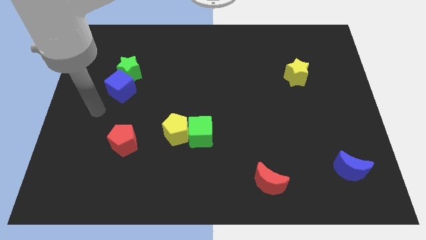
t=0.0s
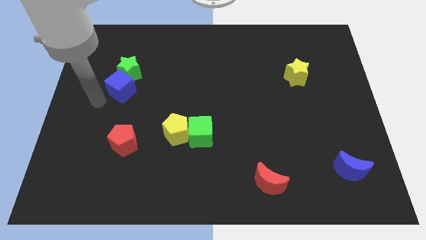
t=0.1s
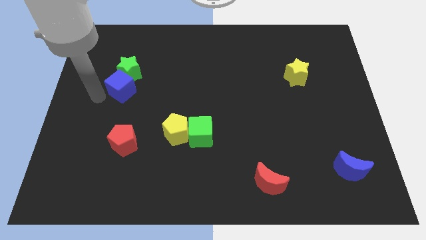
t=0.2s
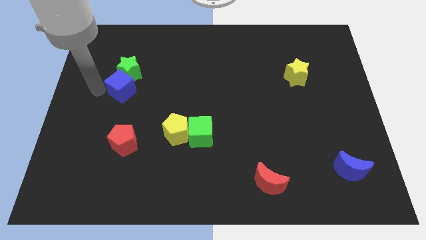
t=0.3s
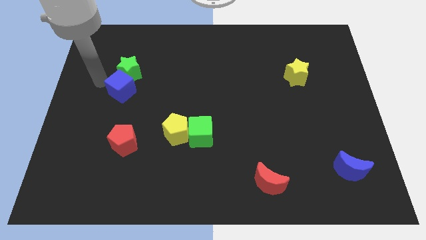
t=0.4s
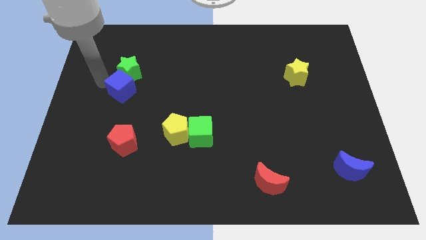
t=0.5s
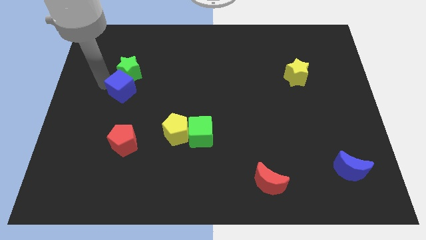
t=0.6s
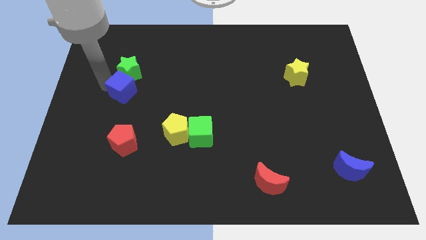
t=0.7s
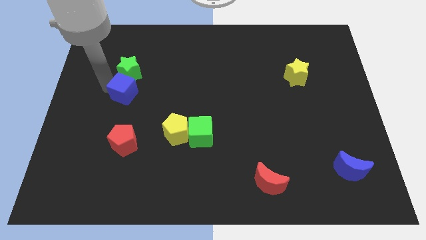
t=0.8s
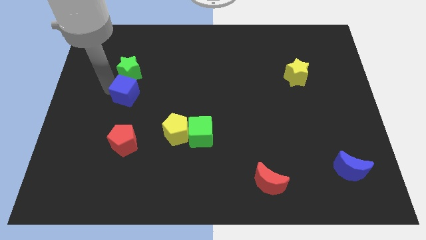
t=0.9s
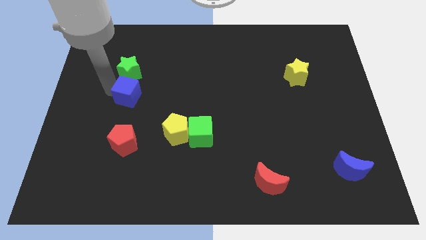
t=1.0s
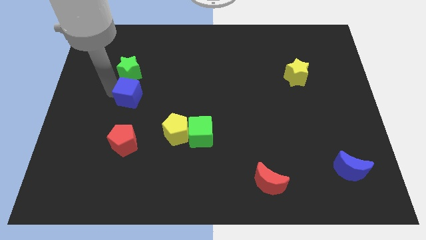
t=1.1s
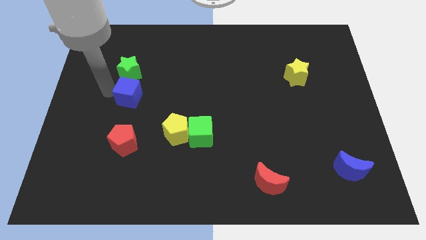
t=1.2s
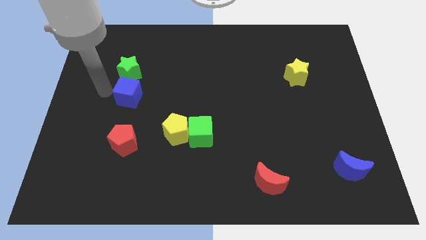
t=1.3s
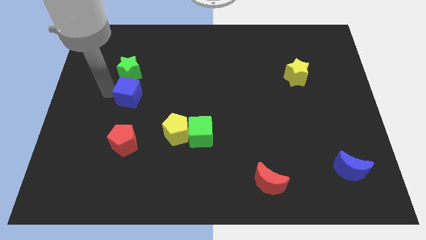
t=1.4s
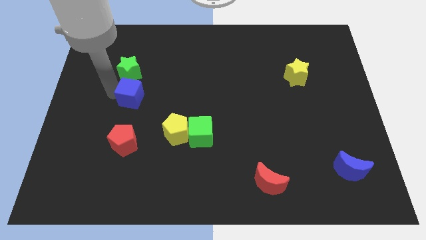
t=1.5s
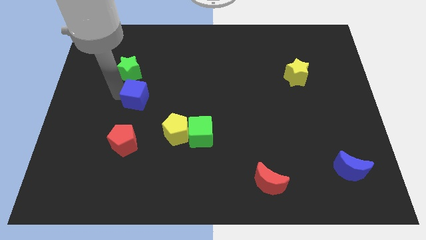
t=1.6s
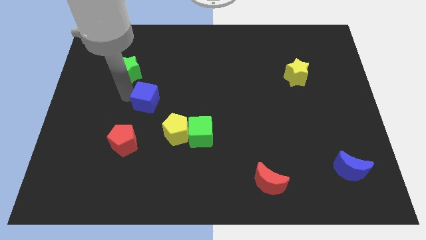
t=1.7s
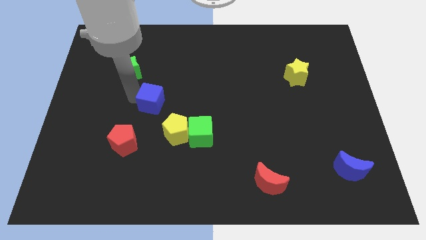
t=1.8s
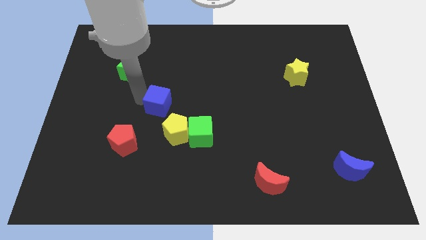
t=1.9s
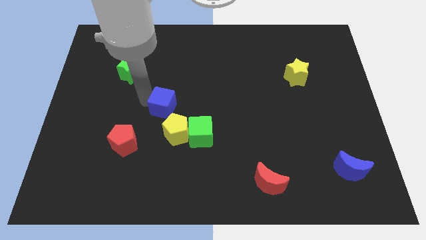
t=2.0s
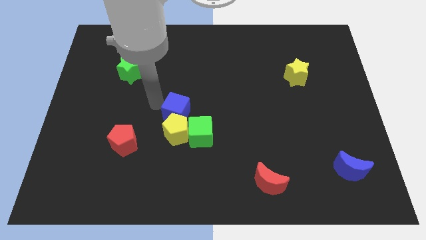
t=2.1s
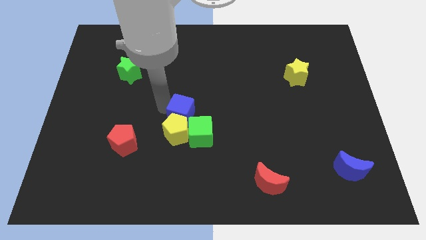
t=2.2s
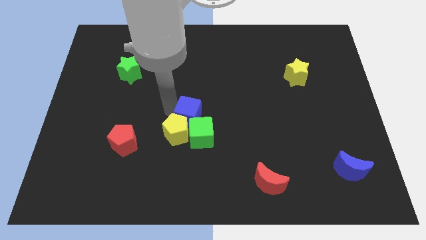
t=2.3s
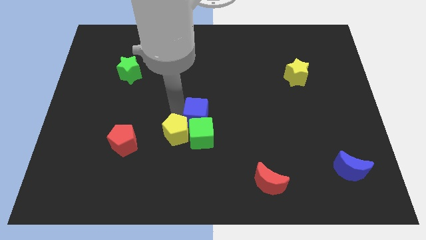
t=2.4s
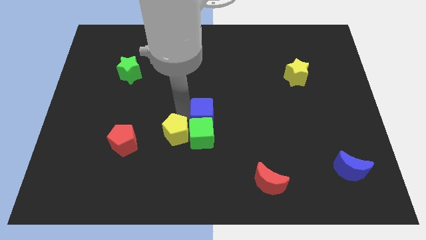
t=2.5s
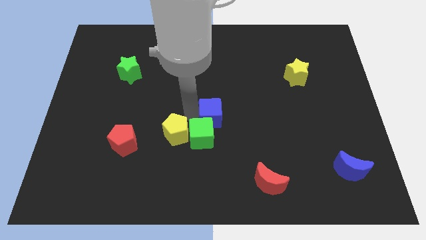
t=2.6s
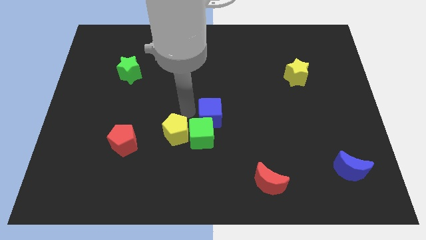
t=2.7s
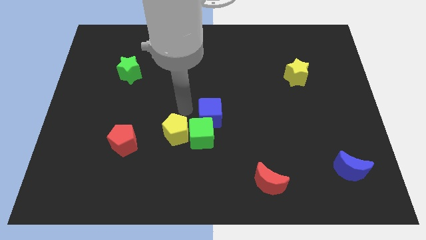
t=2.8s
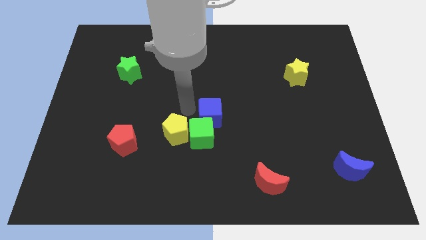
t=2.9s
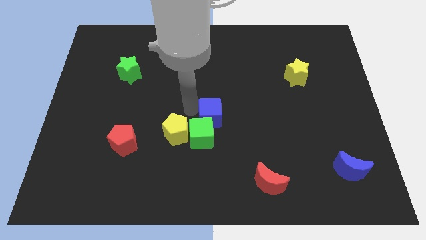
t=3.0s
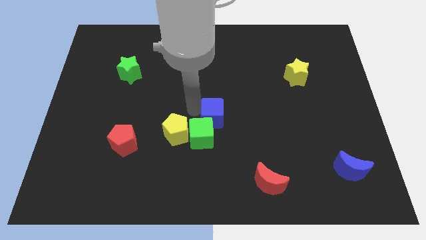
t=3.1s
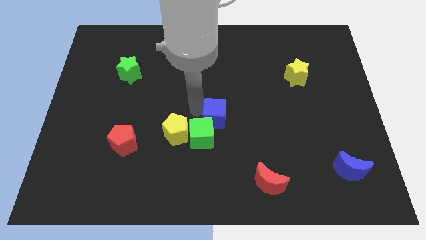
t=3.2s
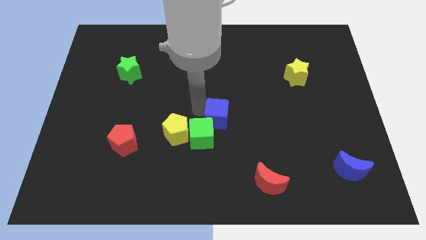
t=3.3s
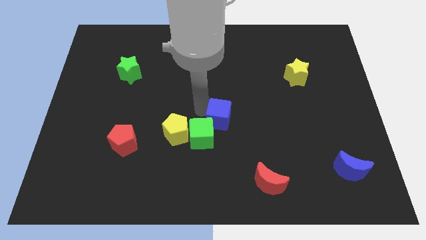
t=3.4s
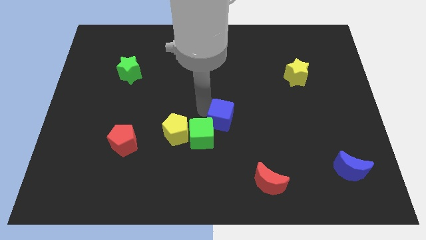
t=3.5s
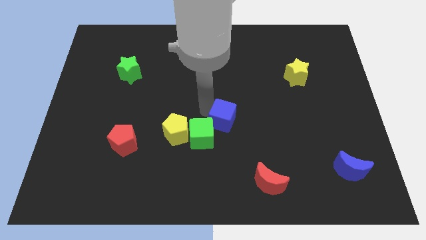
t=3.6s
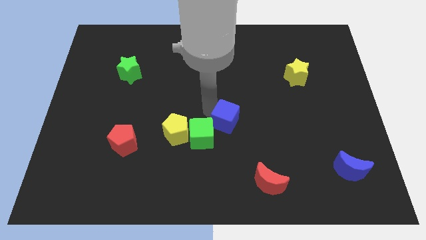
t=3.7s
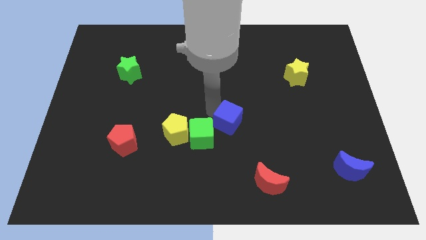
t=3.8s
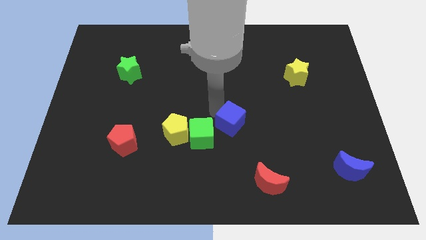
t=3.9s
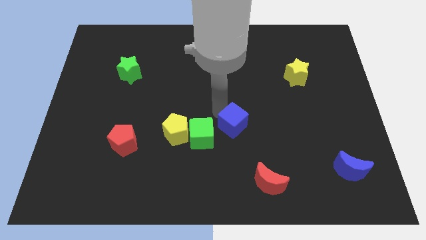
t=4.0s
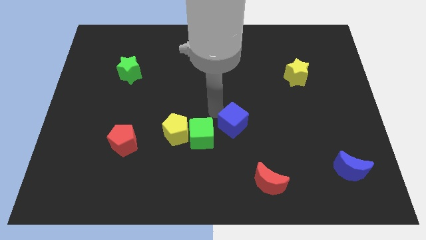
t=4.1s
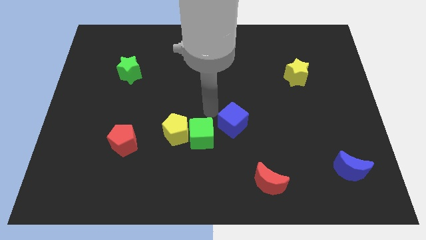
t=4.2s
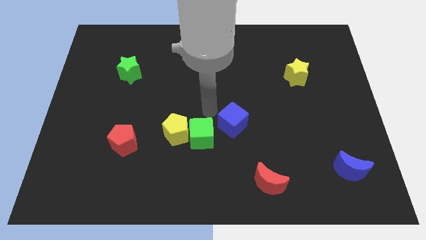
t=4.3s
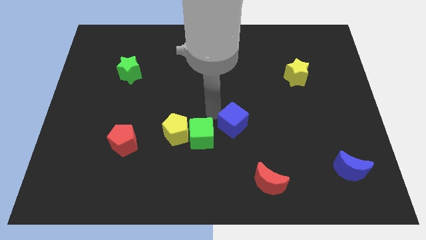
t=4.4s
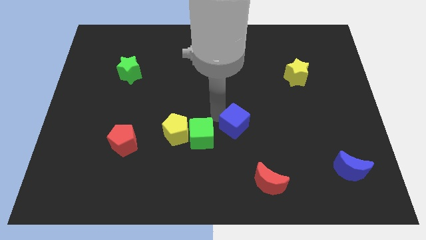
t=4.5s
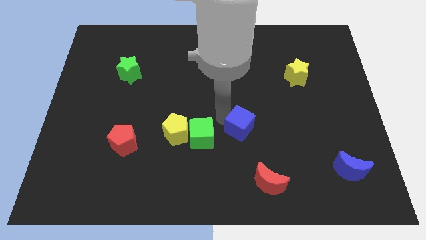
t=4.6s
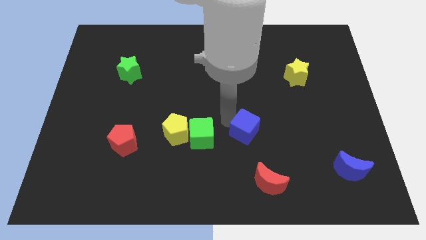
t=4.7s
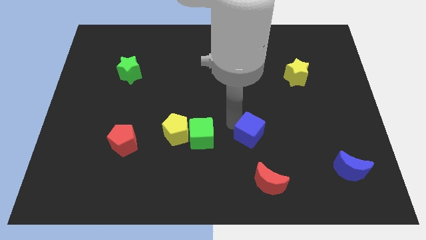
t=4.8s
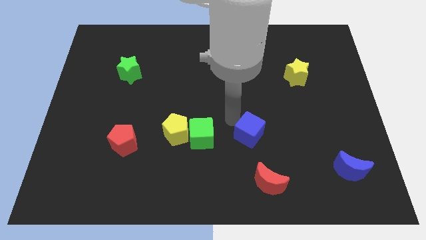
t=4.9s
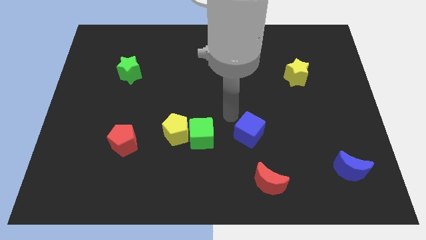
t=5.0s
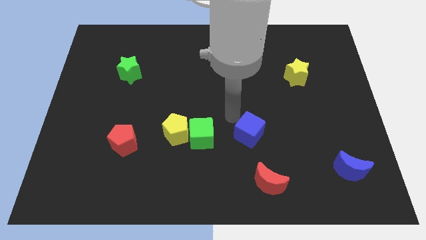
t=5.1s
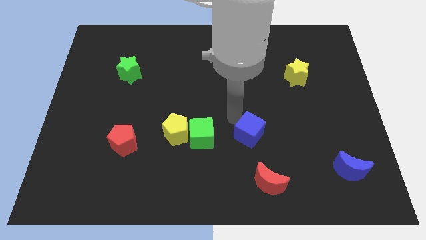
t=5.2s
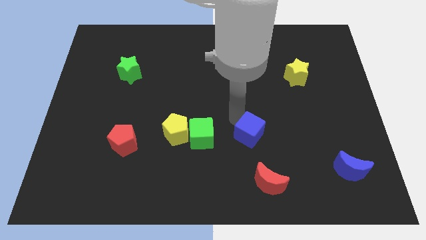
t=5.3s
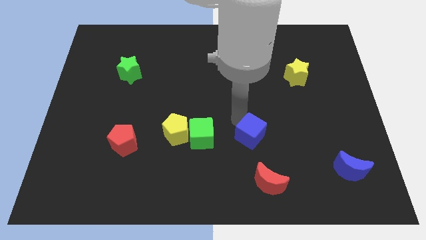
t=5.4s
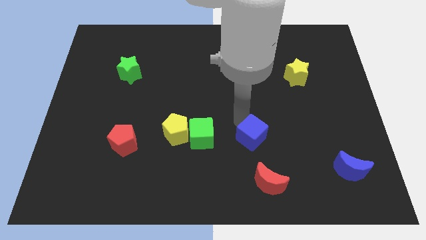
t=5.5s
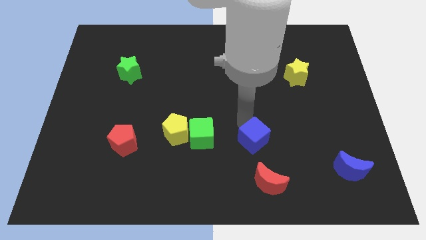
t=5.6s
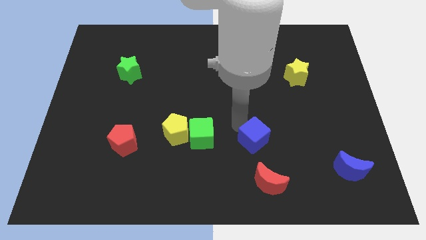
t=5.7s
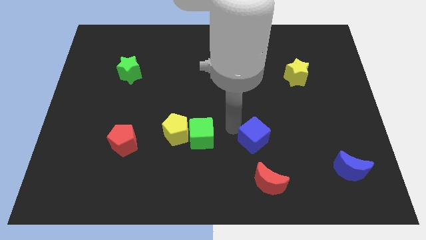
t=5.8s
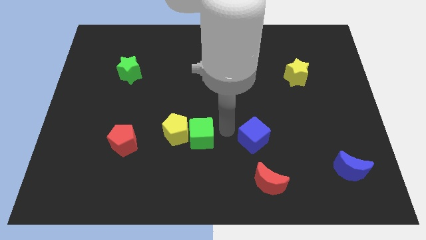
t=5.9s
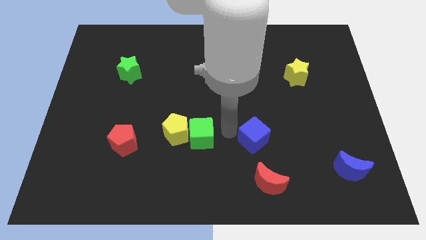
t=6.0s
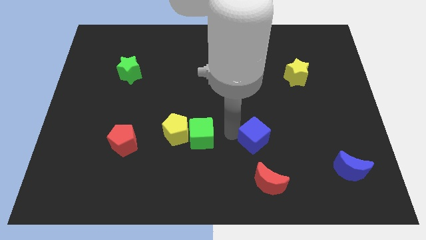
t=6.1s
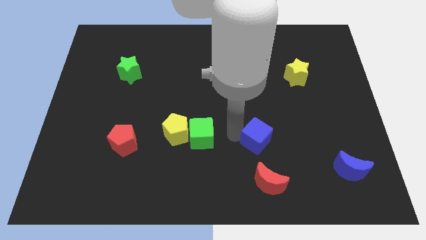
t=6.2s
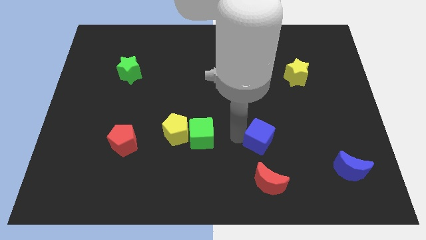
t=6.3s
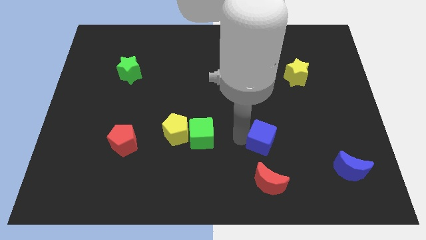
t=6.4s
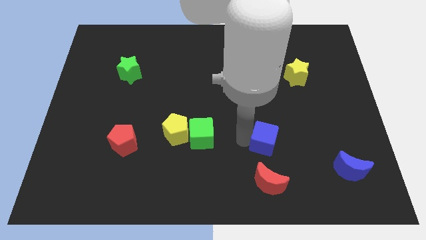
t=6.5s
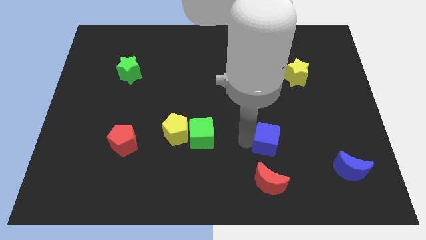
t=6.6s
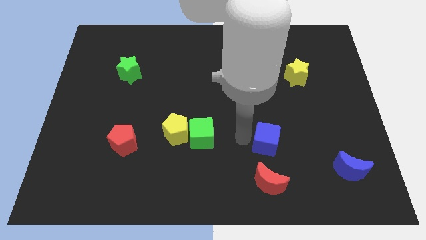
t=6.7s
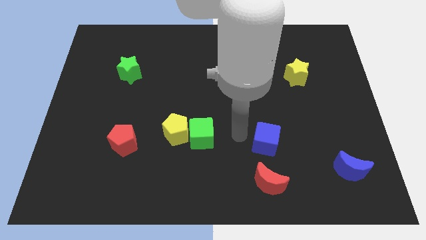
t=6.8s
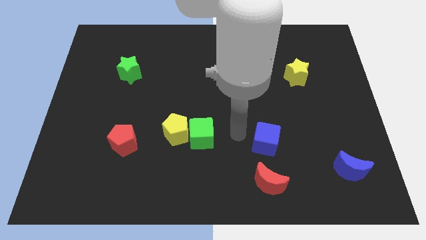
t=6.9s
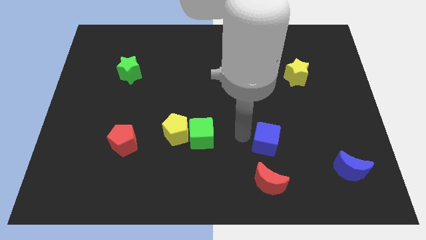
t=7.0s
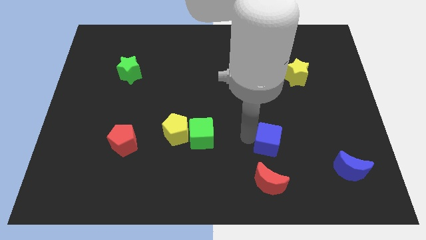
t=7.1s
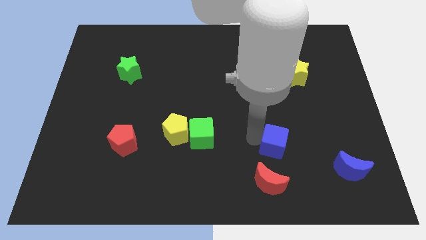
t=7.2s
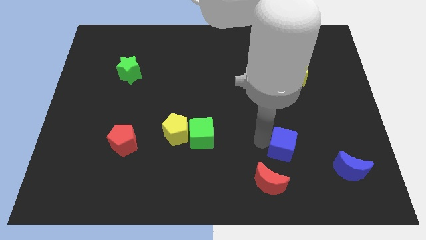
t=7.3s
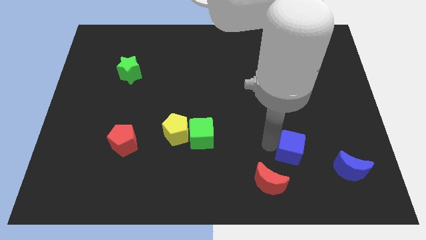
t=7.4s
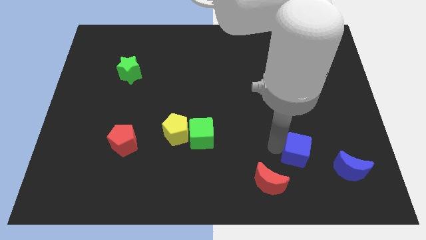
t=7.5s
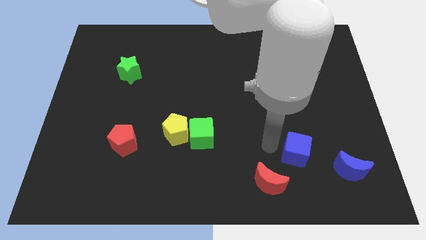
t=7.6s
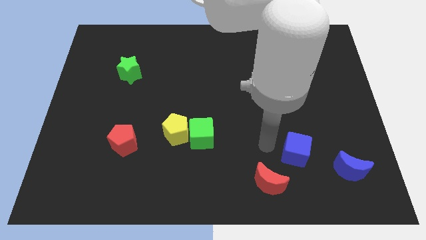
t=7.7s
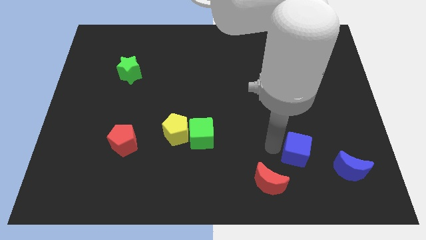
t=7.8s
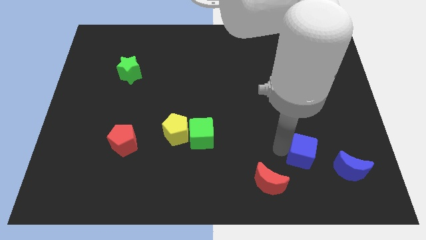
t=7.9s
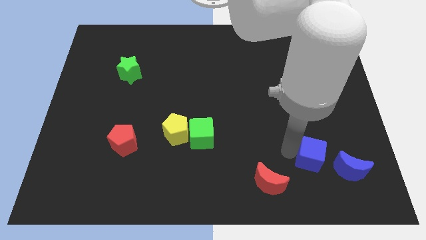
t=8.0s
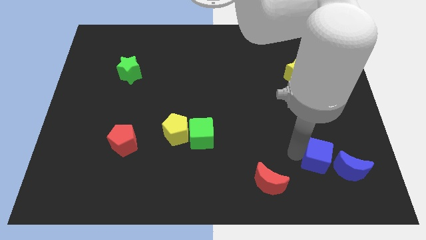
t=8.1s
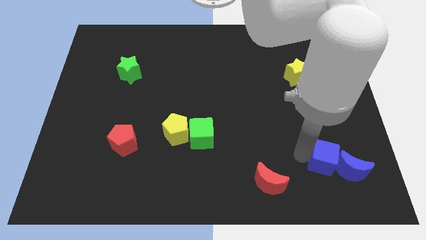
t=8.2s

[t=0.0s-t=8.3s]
push the blue cube next to the blue moon
